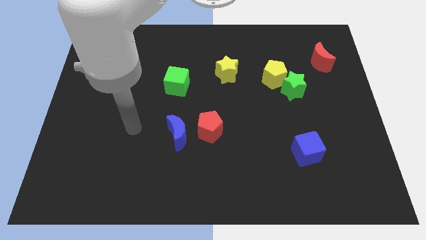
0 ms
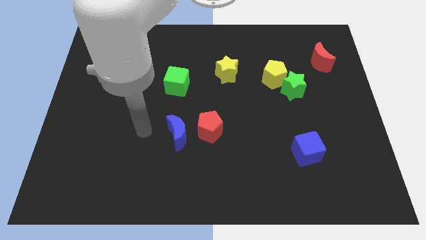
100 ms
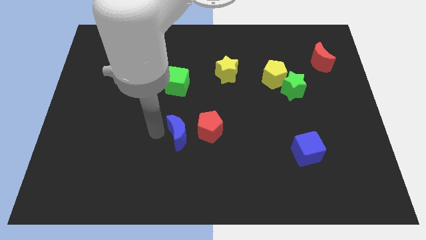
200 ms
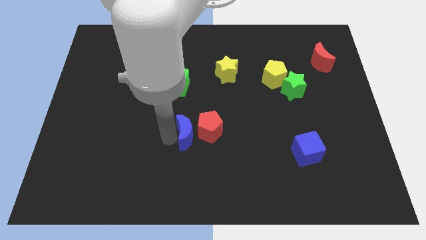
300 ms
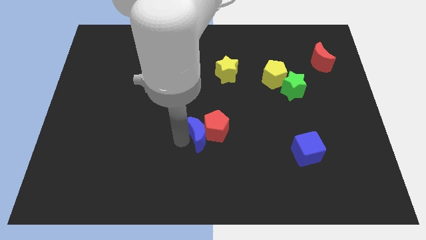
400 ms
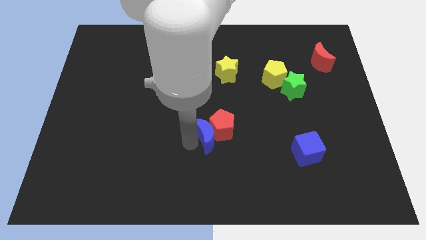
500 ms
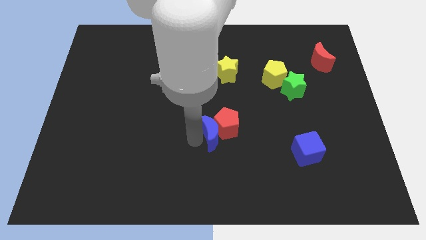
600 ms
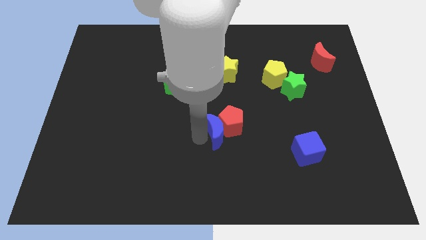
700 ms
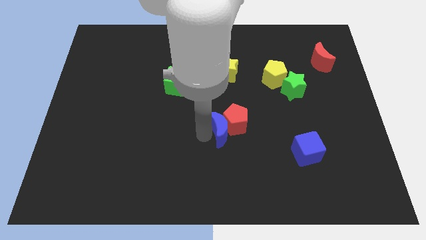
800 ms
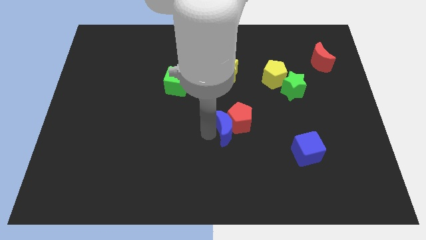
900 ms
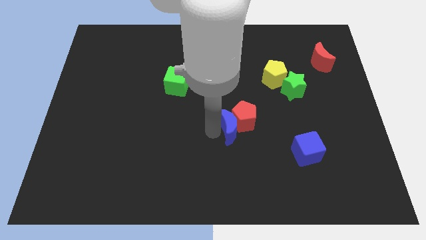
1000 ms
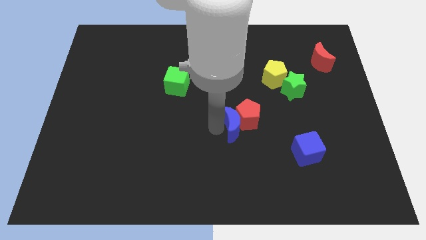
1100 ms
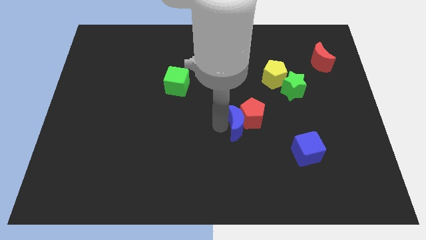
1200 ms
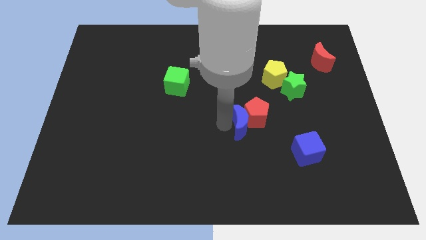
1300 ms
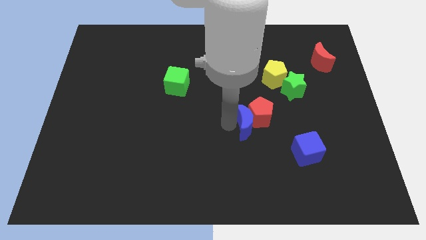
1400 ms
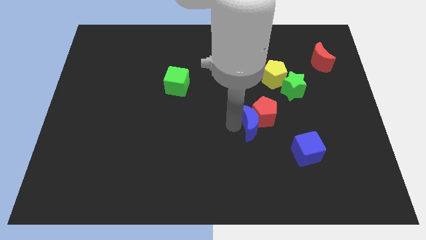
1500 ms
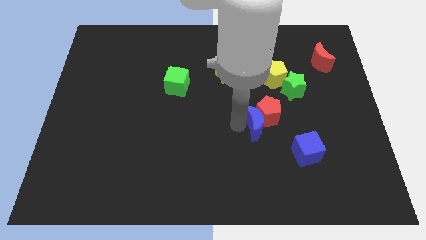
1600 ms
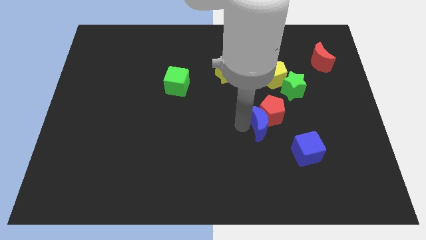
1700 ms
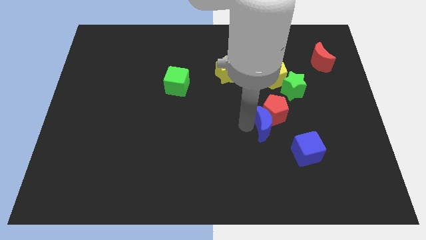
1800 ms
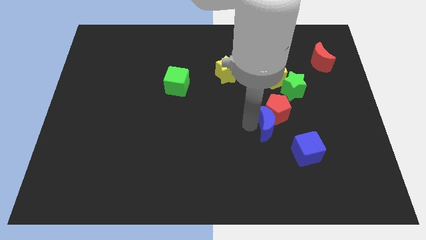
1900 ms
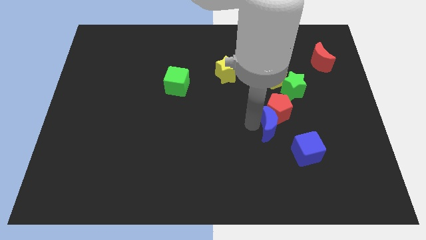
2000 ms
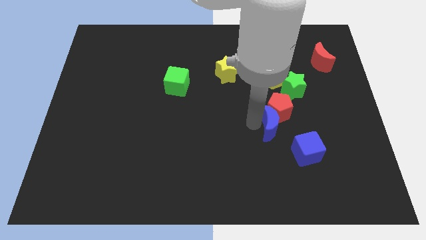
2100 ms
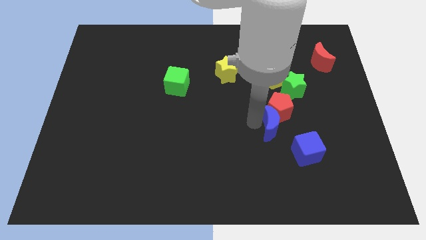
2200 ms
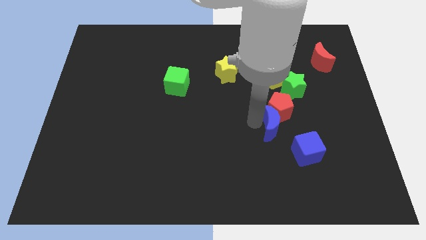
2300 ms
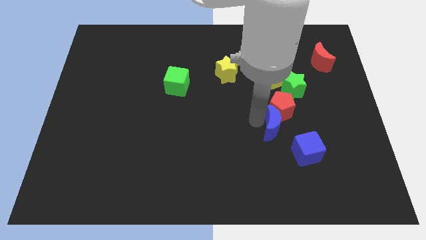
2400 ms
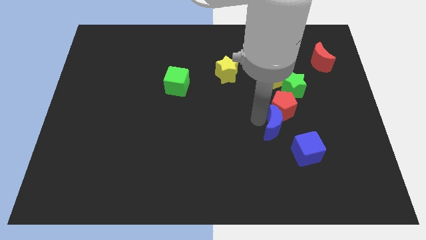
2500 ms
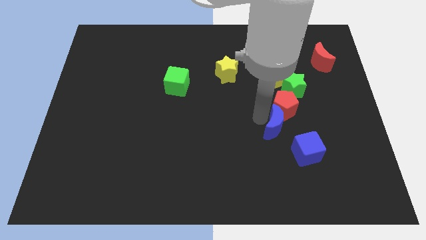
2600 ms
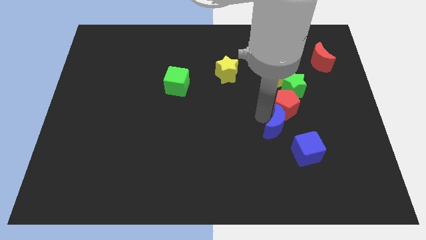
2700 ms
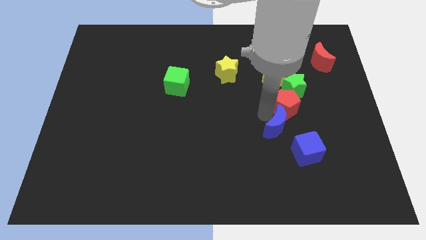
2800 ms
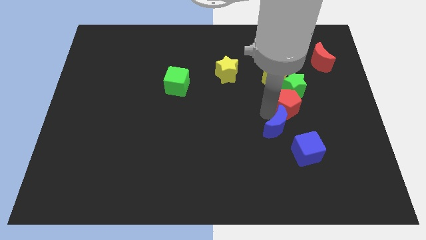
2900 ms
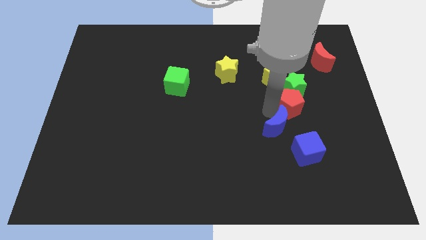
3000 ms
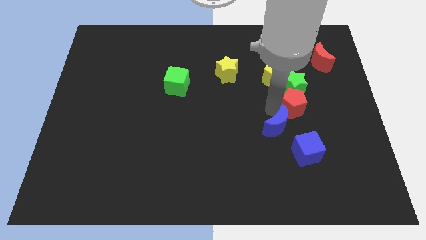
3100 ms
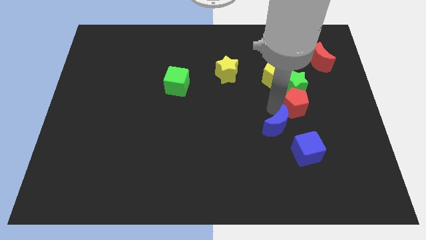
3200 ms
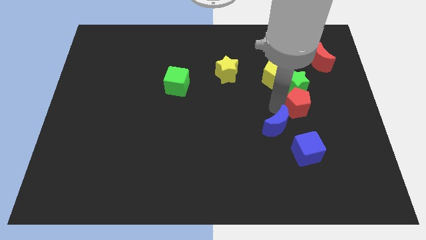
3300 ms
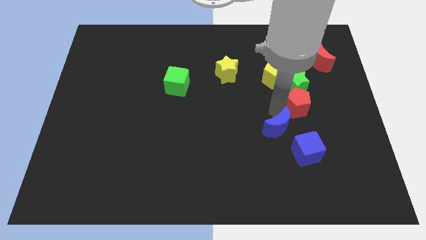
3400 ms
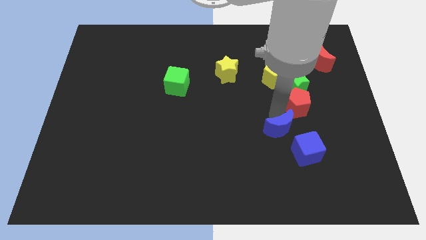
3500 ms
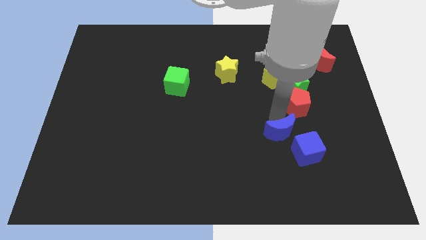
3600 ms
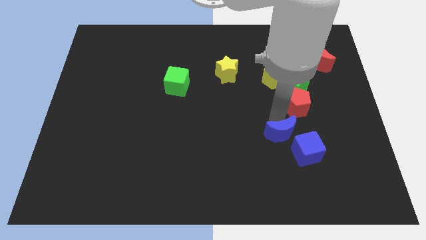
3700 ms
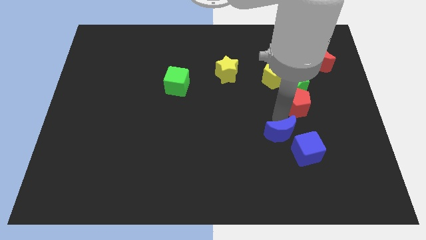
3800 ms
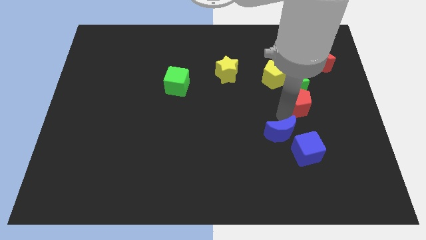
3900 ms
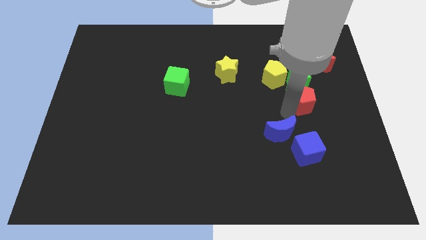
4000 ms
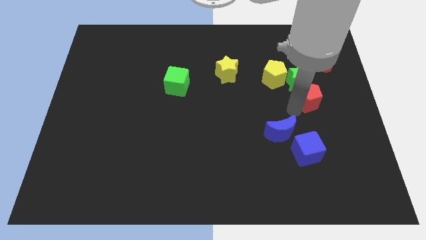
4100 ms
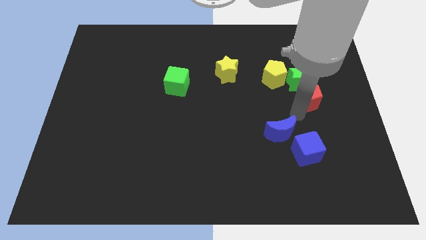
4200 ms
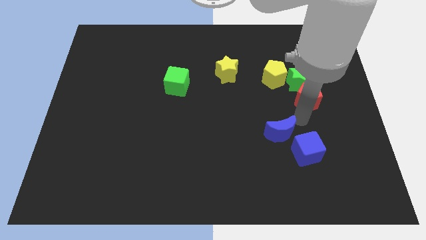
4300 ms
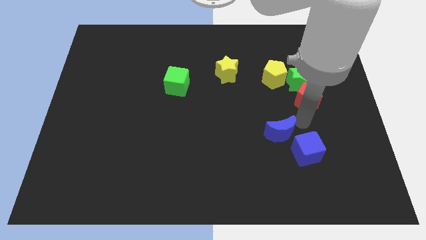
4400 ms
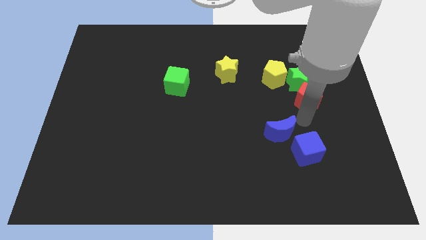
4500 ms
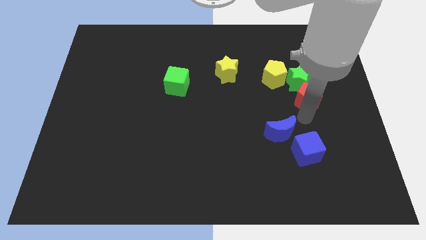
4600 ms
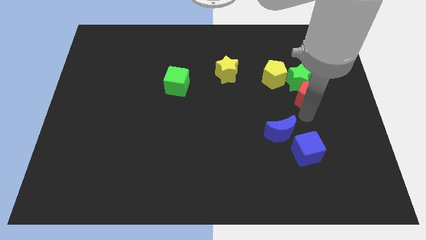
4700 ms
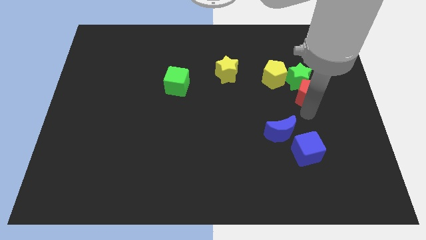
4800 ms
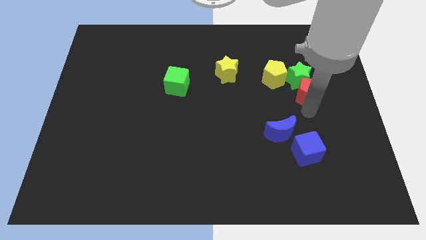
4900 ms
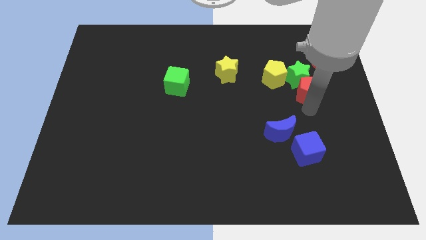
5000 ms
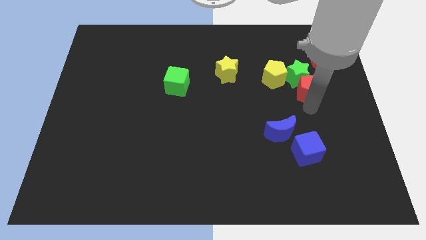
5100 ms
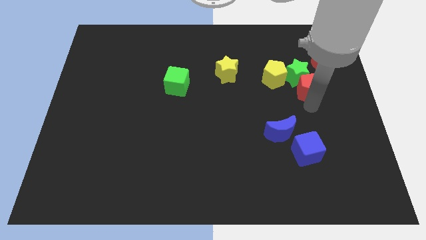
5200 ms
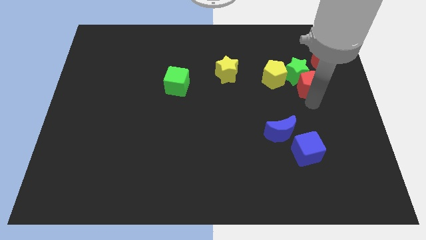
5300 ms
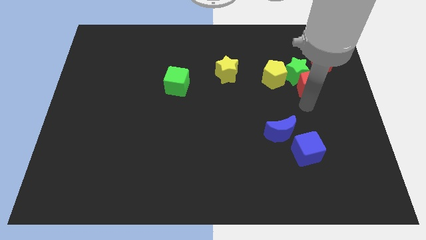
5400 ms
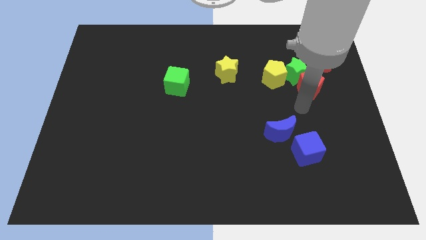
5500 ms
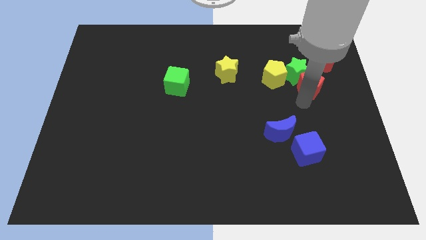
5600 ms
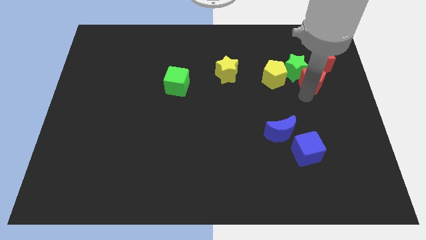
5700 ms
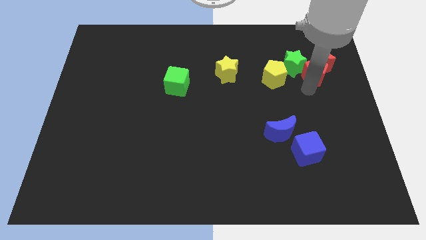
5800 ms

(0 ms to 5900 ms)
move the red pentagon close to the red moon

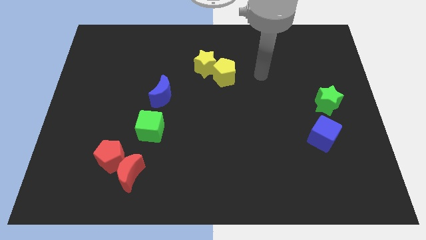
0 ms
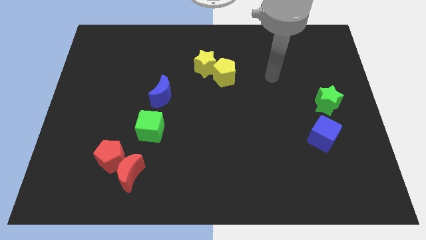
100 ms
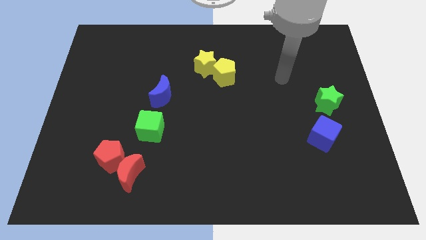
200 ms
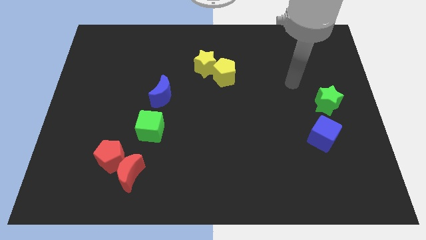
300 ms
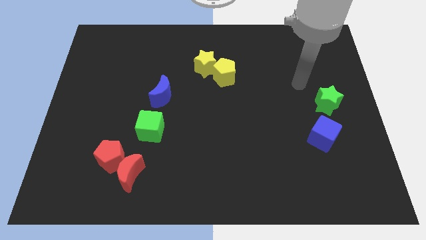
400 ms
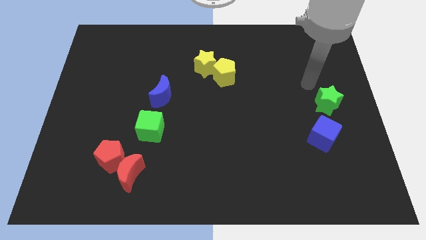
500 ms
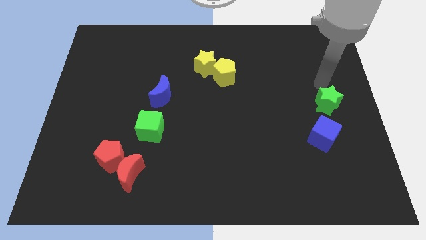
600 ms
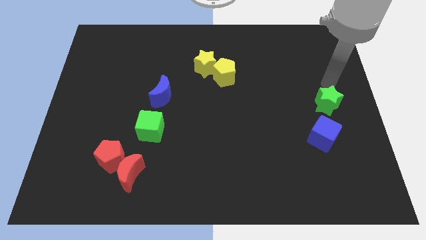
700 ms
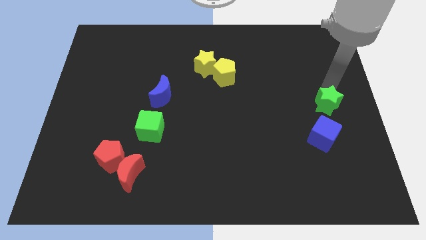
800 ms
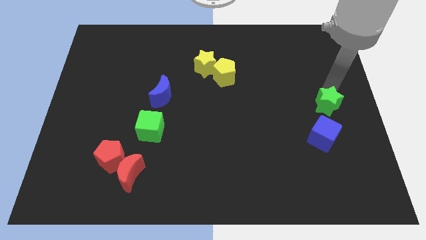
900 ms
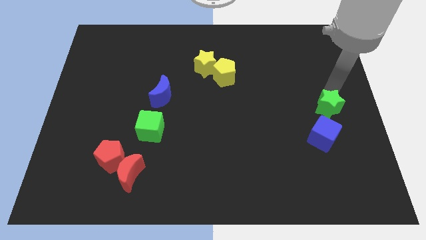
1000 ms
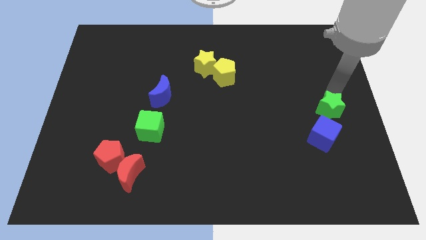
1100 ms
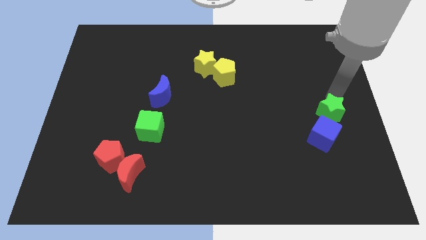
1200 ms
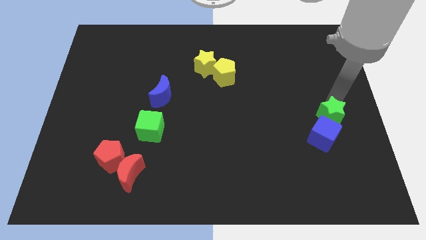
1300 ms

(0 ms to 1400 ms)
put the green star to the blue cube
